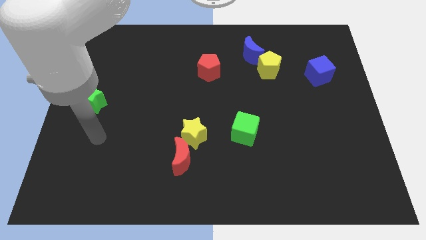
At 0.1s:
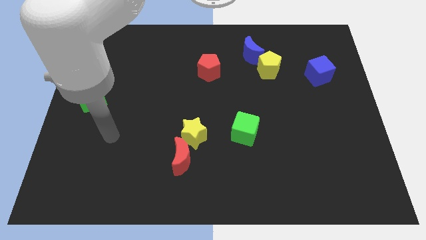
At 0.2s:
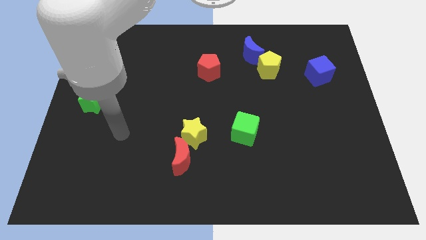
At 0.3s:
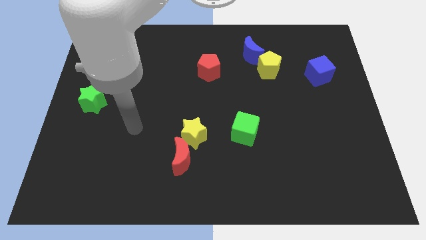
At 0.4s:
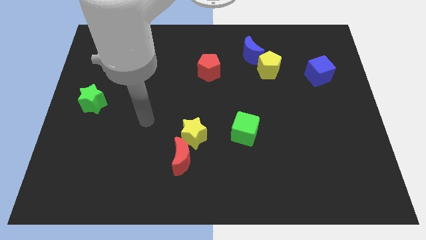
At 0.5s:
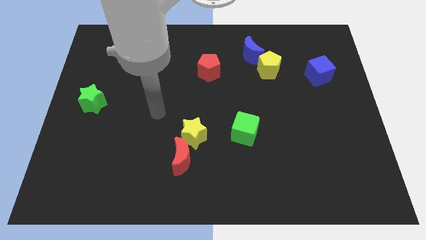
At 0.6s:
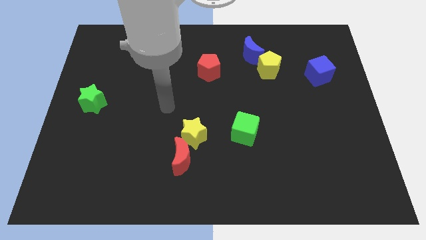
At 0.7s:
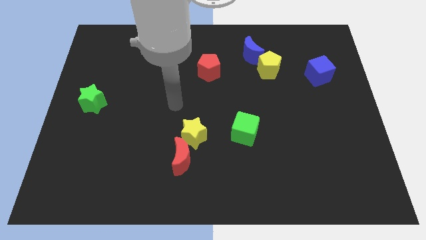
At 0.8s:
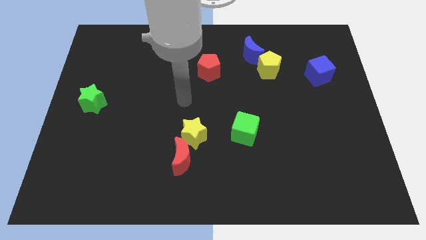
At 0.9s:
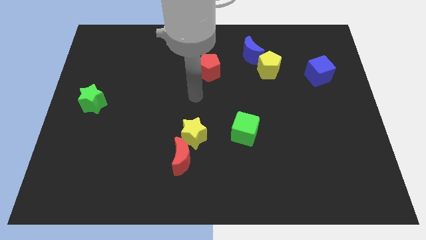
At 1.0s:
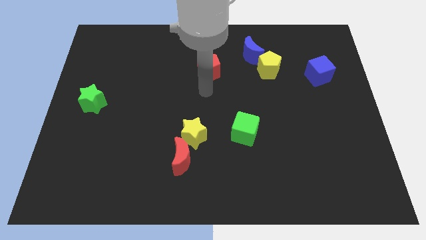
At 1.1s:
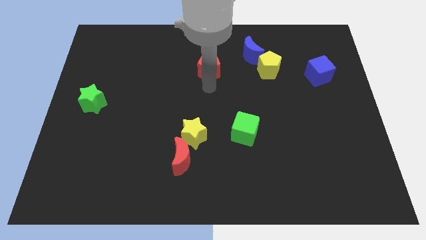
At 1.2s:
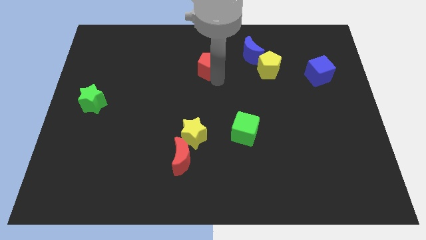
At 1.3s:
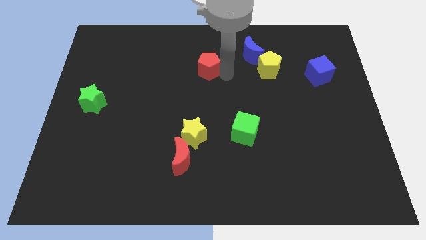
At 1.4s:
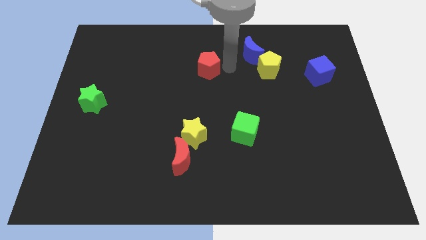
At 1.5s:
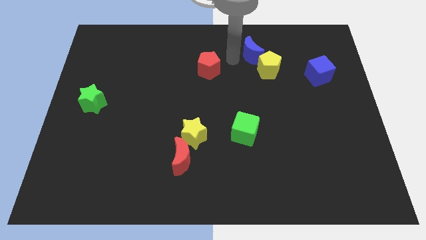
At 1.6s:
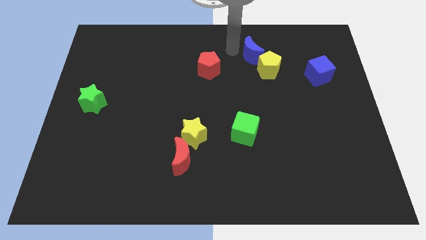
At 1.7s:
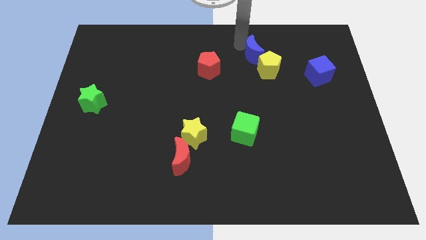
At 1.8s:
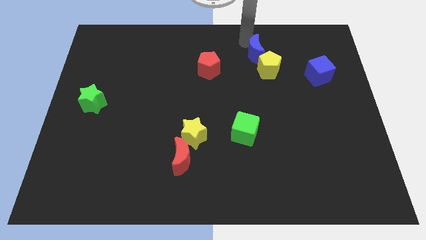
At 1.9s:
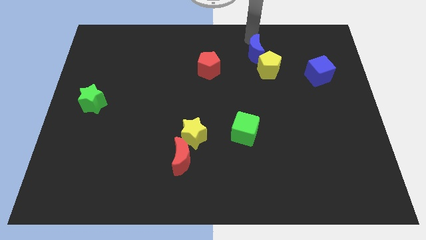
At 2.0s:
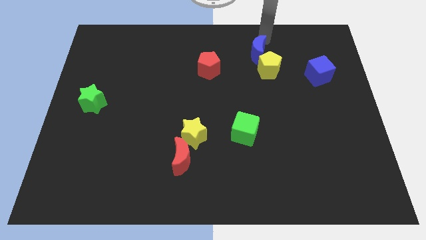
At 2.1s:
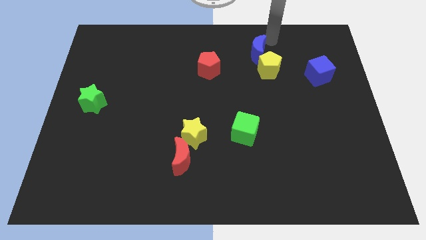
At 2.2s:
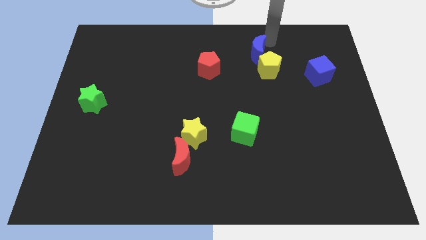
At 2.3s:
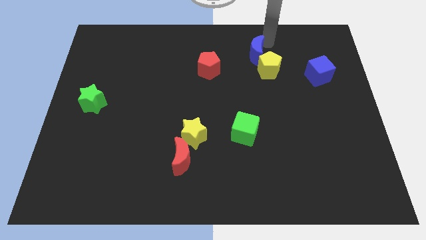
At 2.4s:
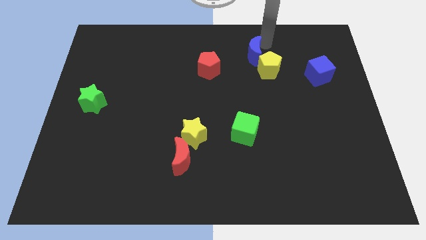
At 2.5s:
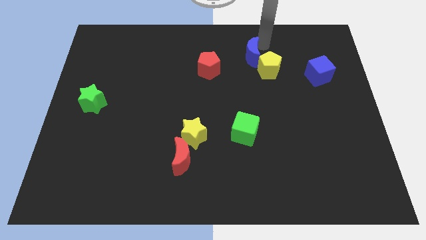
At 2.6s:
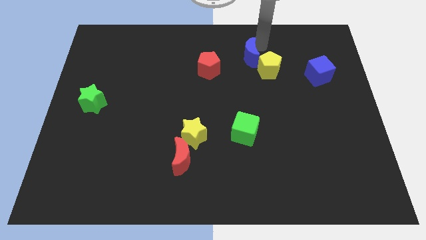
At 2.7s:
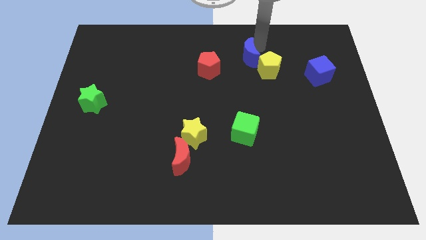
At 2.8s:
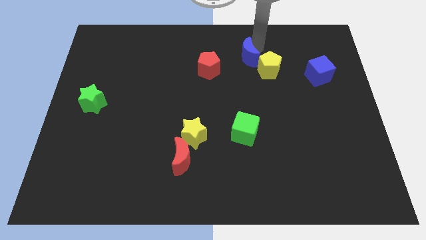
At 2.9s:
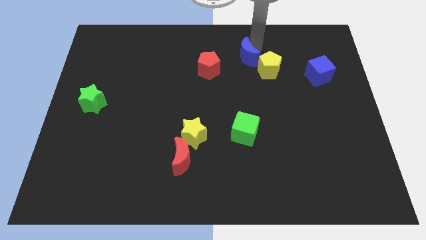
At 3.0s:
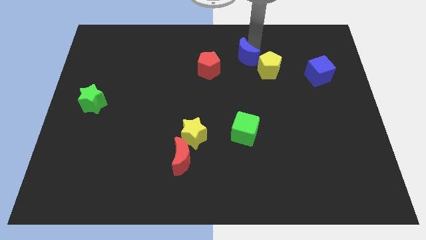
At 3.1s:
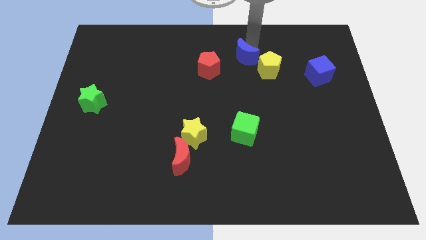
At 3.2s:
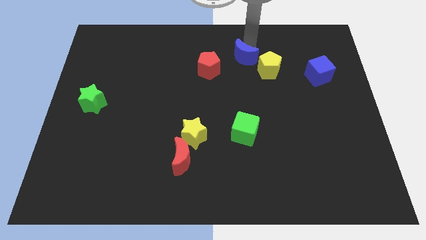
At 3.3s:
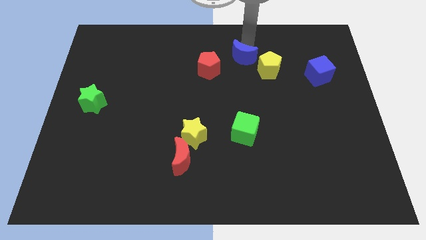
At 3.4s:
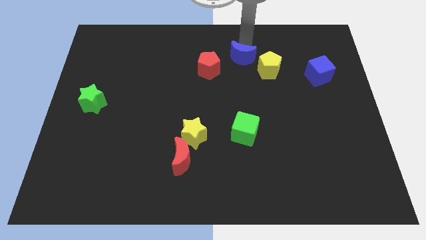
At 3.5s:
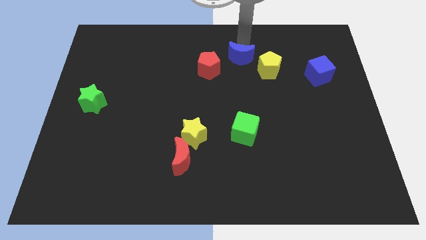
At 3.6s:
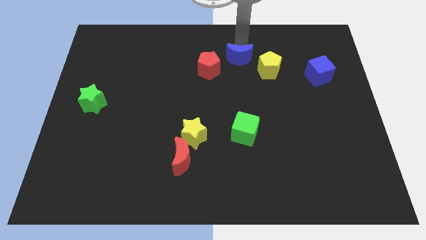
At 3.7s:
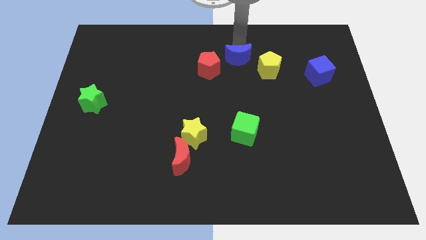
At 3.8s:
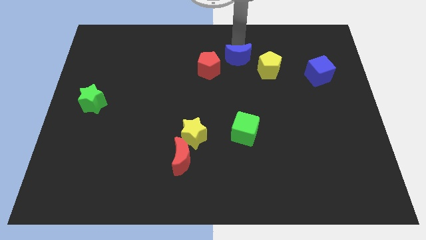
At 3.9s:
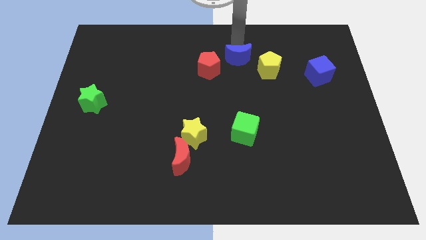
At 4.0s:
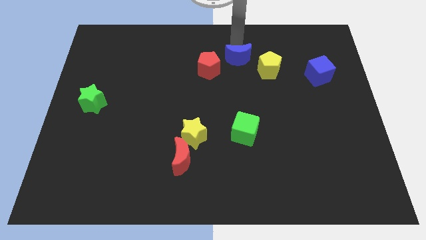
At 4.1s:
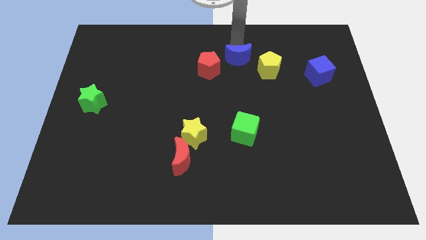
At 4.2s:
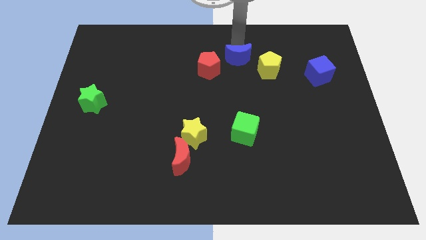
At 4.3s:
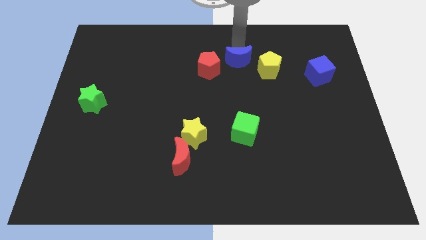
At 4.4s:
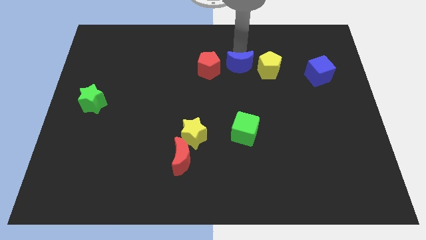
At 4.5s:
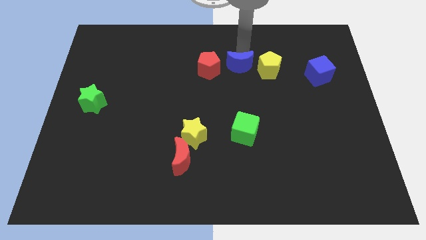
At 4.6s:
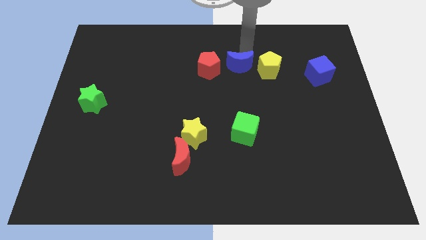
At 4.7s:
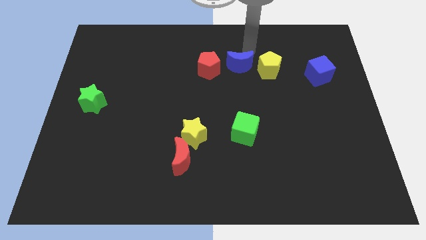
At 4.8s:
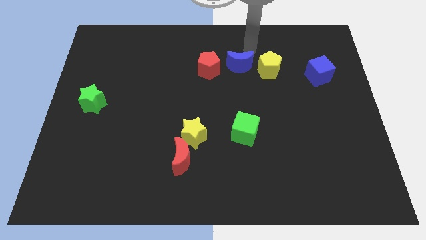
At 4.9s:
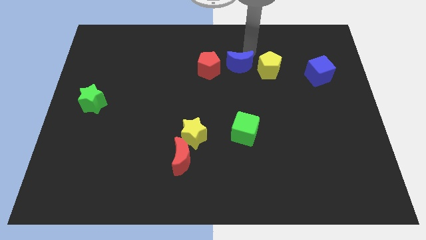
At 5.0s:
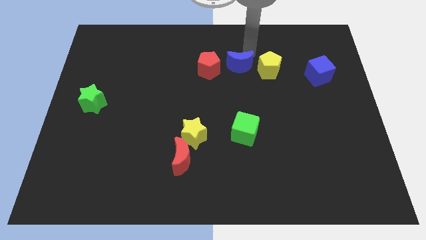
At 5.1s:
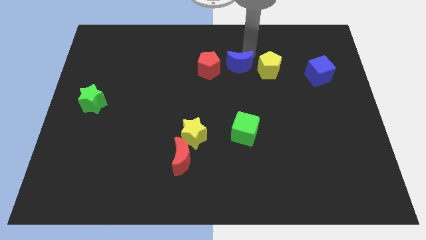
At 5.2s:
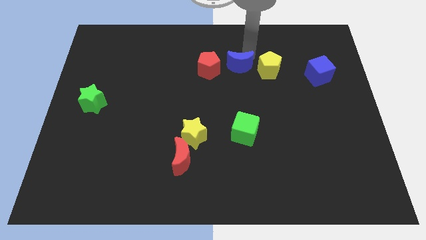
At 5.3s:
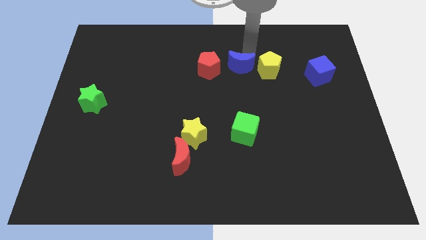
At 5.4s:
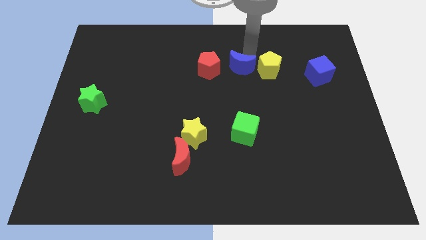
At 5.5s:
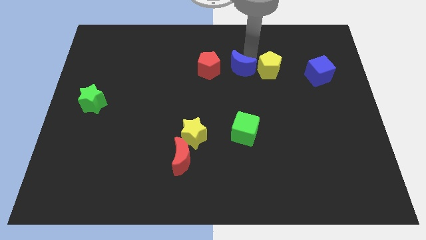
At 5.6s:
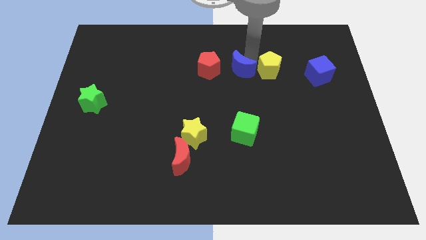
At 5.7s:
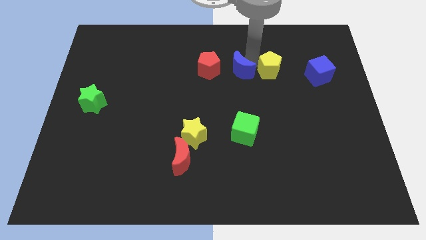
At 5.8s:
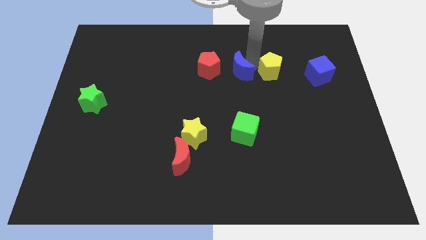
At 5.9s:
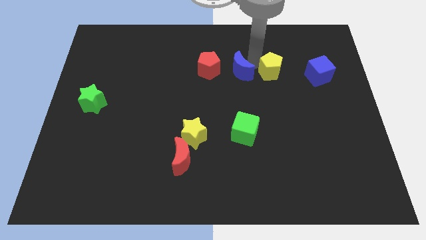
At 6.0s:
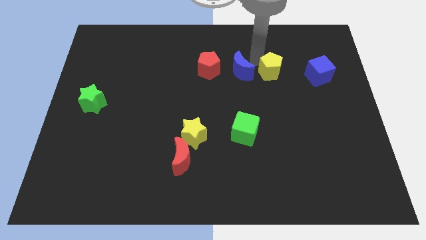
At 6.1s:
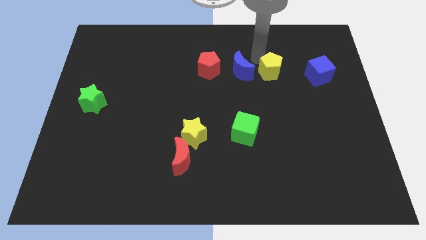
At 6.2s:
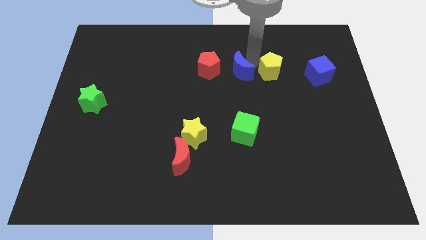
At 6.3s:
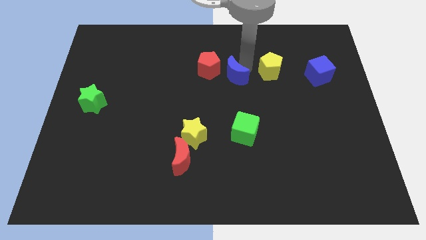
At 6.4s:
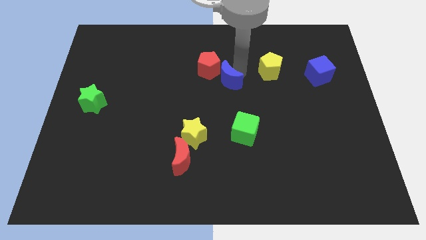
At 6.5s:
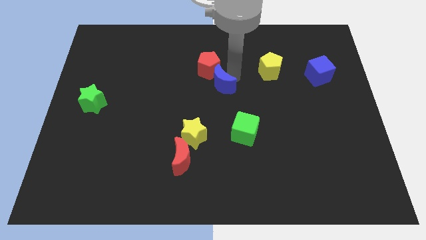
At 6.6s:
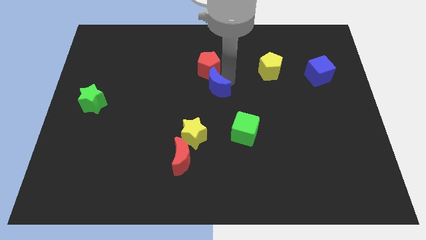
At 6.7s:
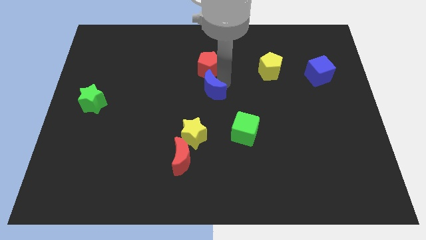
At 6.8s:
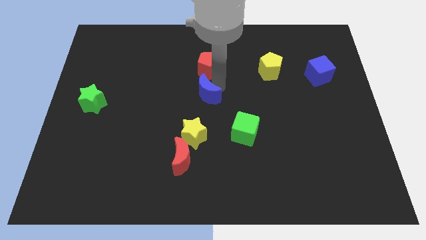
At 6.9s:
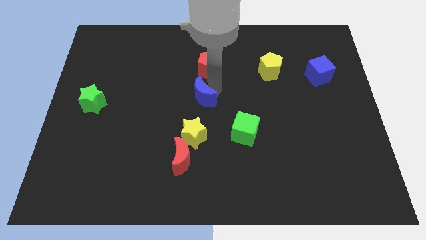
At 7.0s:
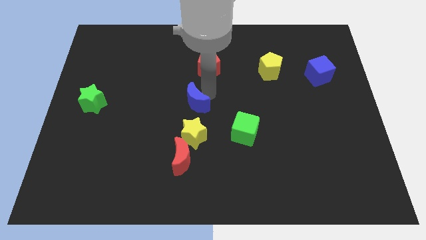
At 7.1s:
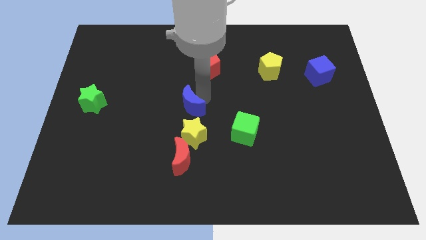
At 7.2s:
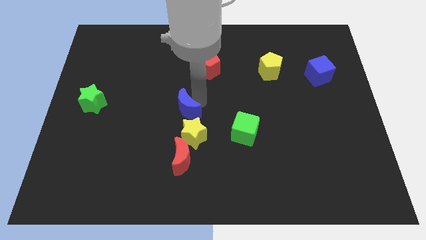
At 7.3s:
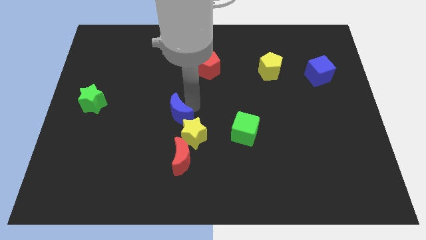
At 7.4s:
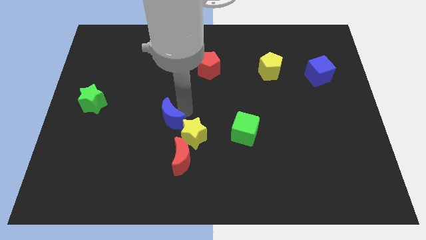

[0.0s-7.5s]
move the blue moon just left of the yellow star
